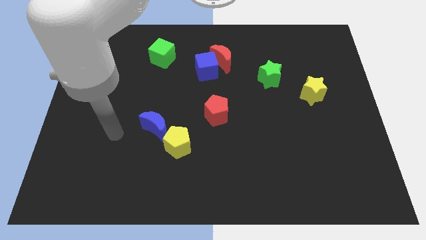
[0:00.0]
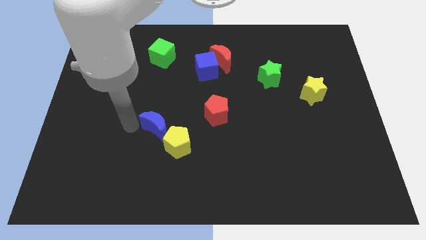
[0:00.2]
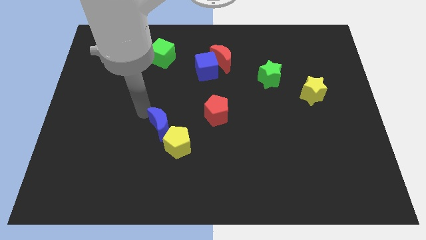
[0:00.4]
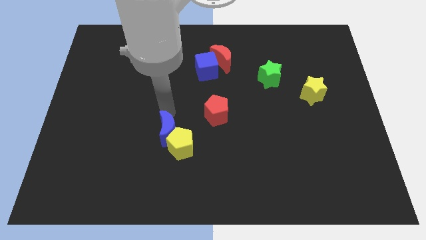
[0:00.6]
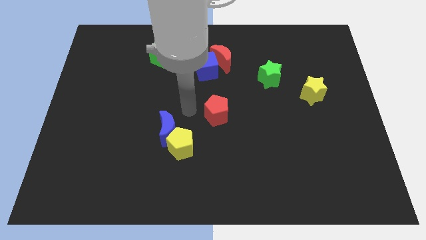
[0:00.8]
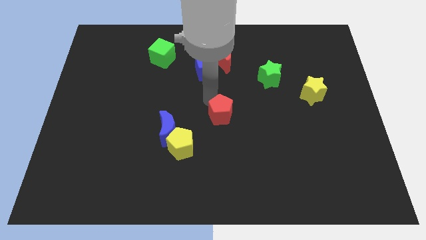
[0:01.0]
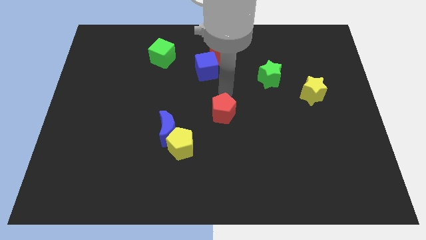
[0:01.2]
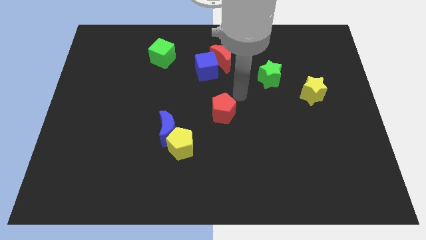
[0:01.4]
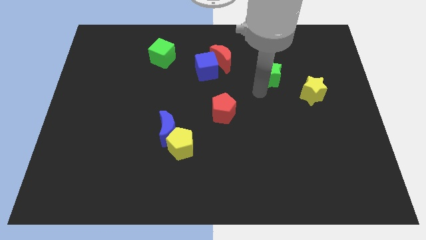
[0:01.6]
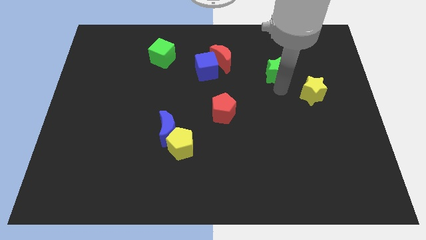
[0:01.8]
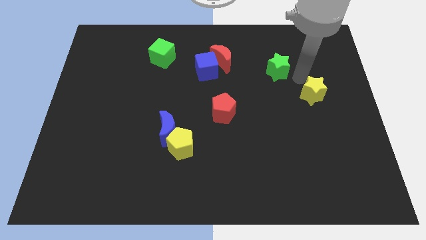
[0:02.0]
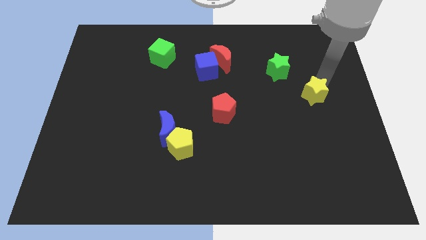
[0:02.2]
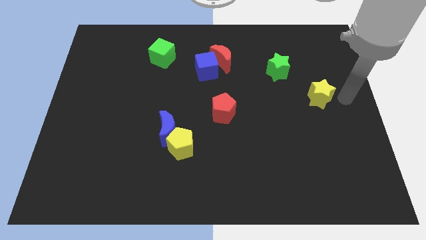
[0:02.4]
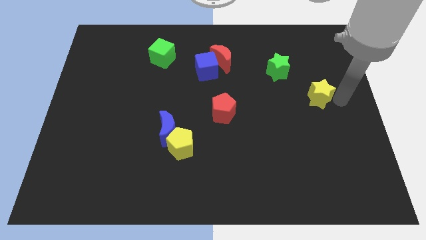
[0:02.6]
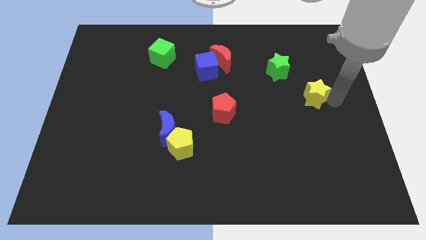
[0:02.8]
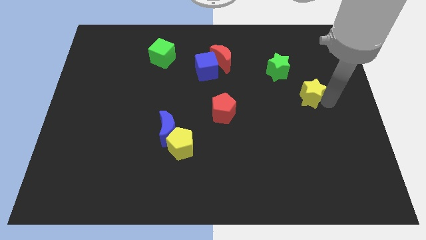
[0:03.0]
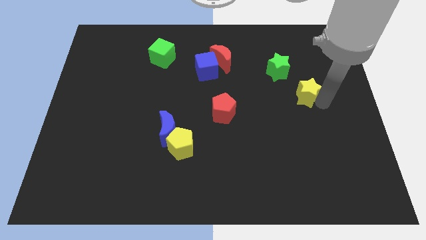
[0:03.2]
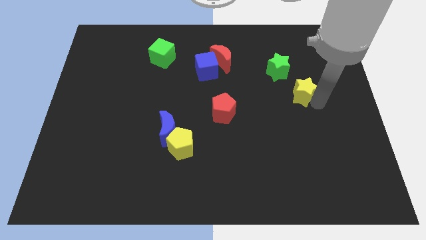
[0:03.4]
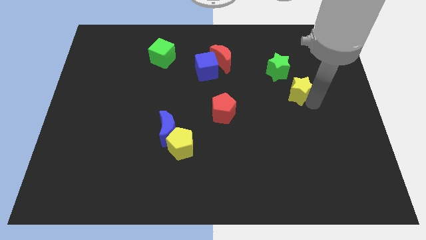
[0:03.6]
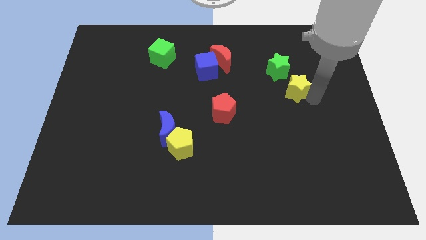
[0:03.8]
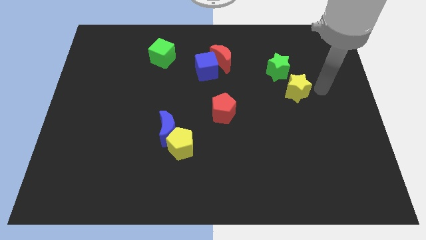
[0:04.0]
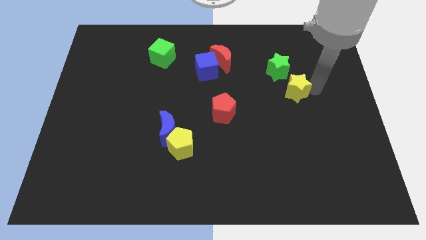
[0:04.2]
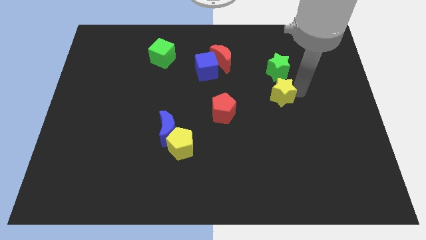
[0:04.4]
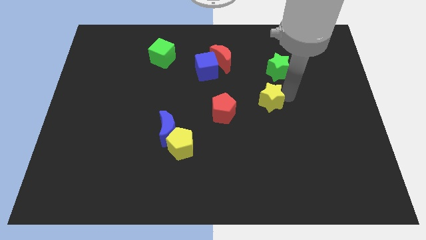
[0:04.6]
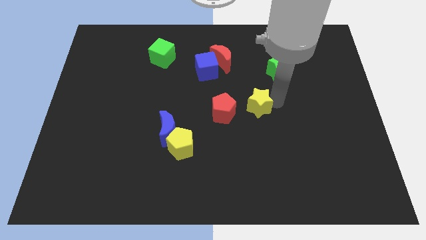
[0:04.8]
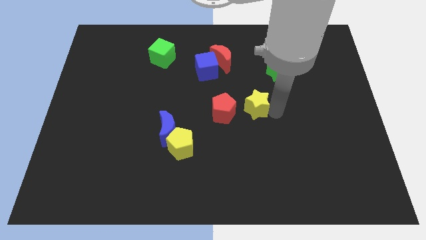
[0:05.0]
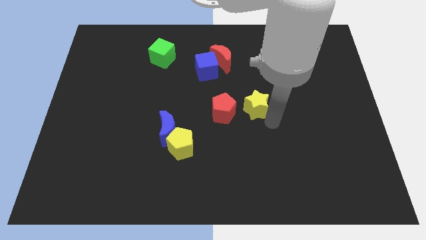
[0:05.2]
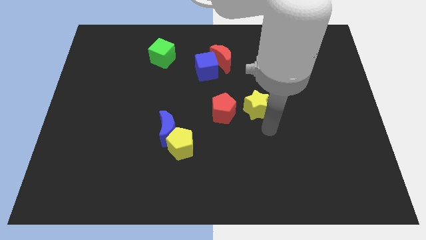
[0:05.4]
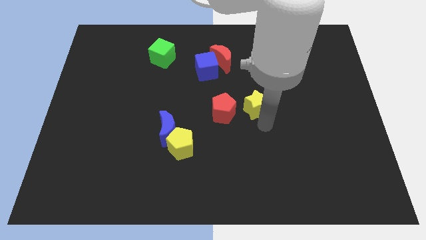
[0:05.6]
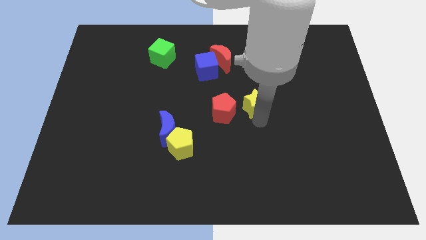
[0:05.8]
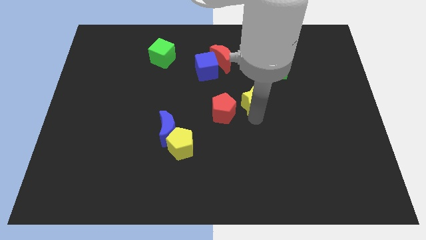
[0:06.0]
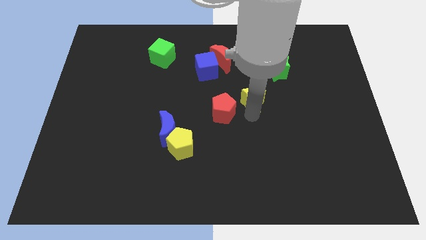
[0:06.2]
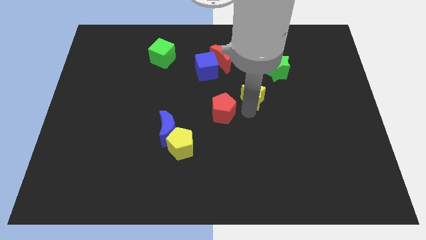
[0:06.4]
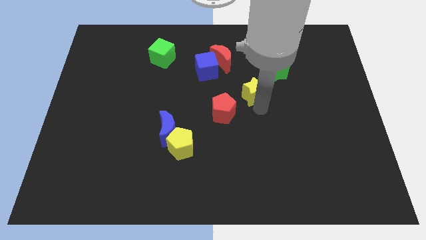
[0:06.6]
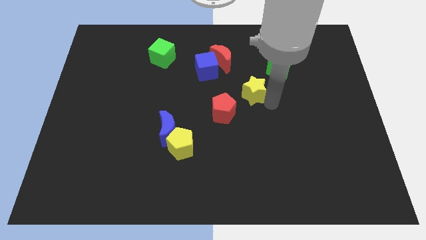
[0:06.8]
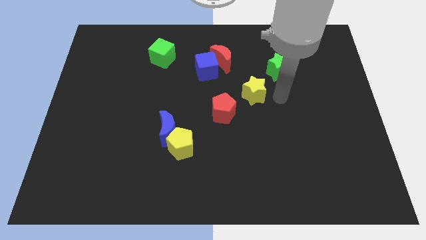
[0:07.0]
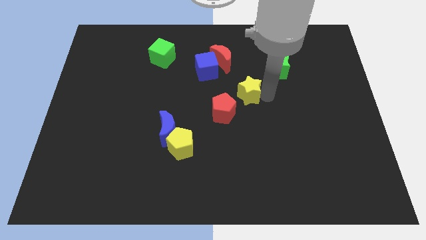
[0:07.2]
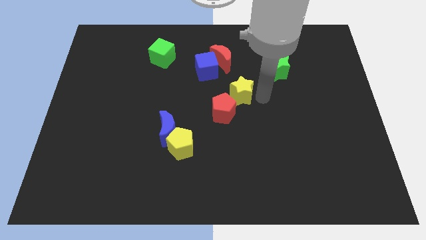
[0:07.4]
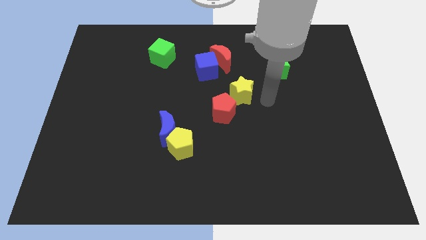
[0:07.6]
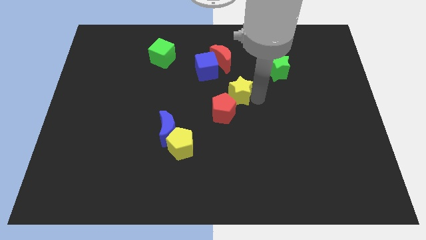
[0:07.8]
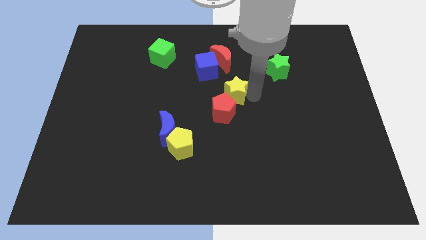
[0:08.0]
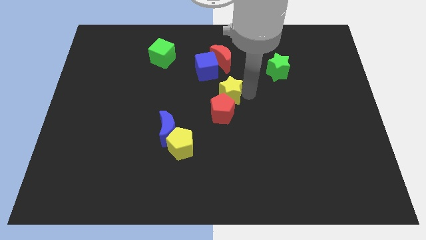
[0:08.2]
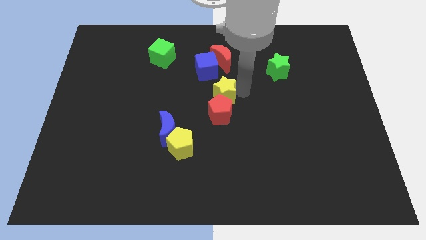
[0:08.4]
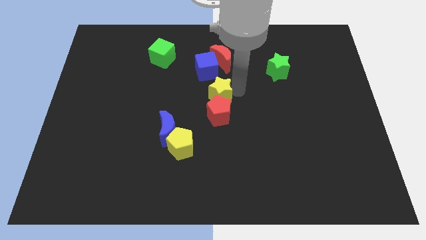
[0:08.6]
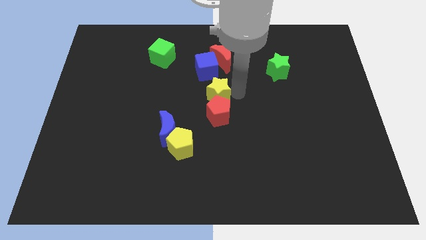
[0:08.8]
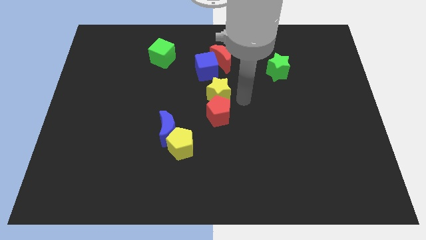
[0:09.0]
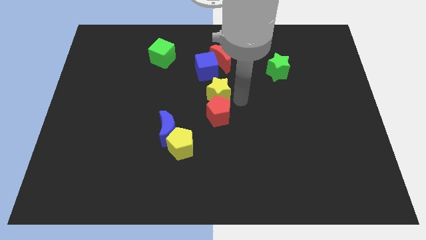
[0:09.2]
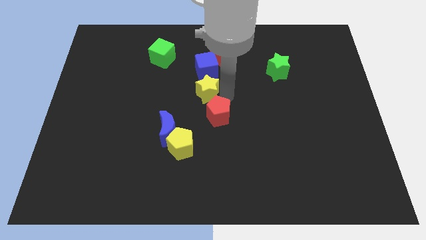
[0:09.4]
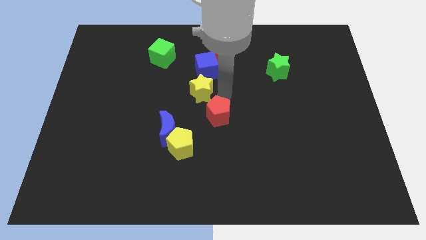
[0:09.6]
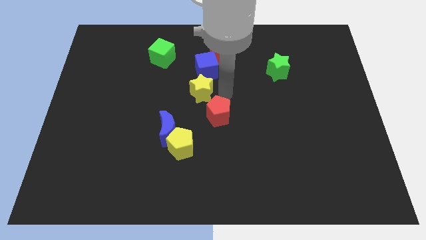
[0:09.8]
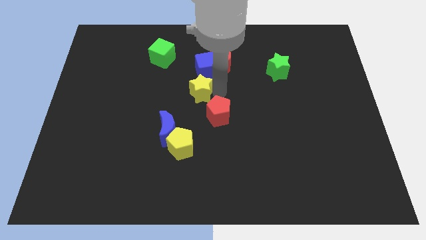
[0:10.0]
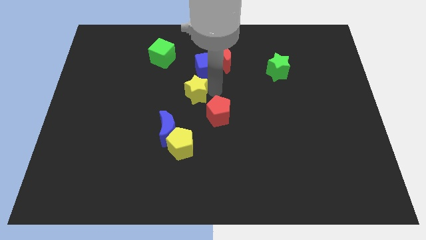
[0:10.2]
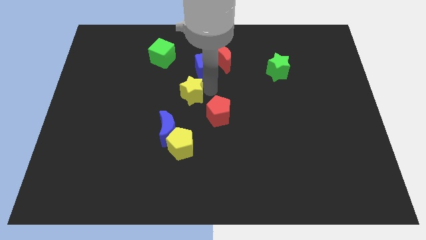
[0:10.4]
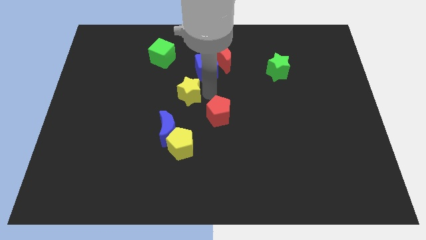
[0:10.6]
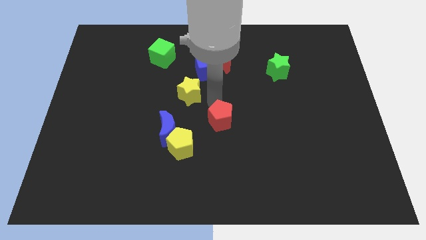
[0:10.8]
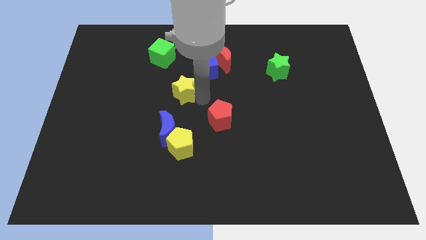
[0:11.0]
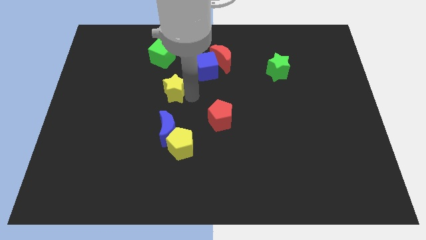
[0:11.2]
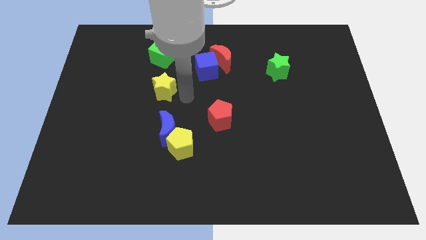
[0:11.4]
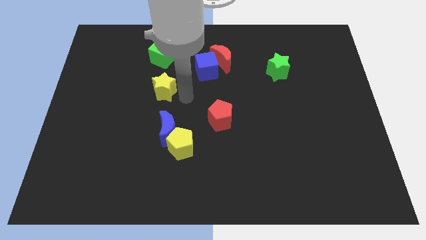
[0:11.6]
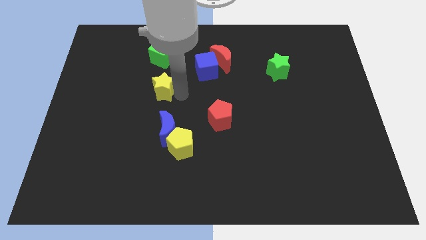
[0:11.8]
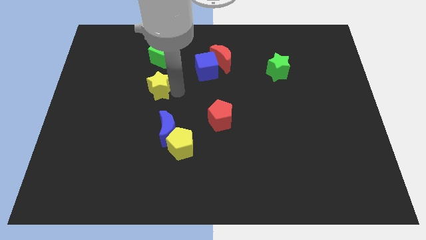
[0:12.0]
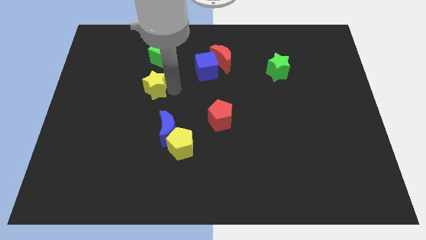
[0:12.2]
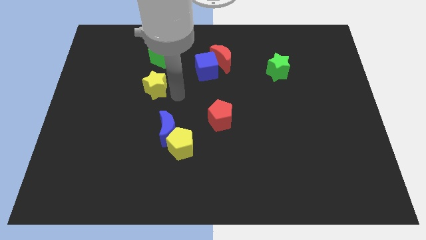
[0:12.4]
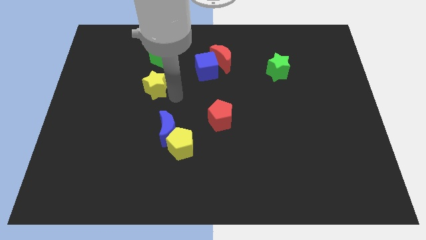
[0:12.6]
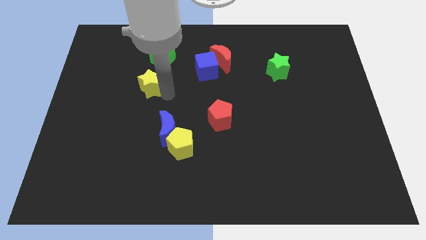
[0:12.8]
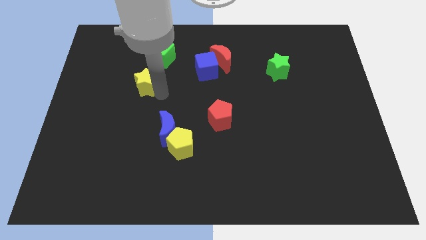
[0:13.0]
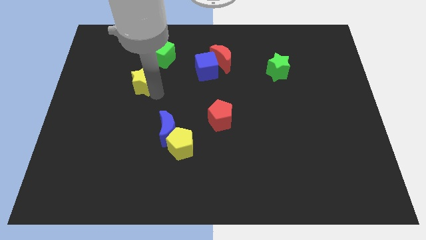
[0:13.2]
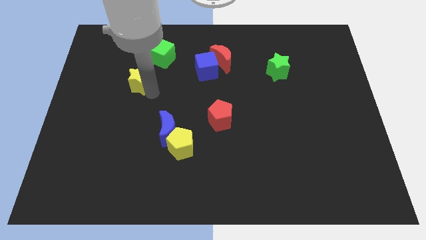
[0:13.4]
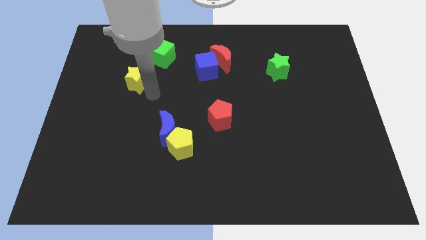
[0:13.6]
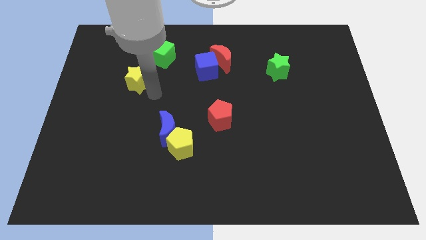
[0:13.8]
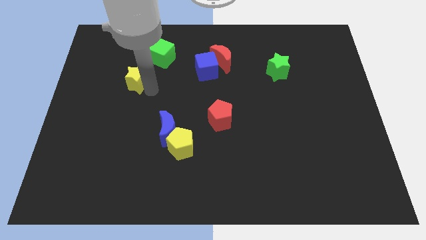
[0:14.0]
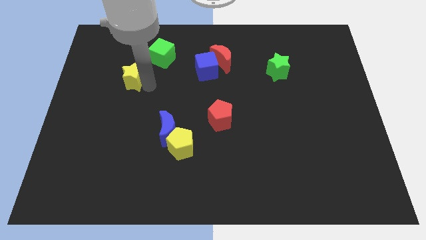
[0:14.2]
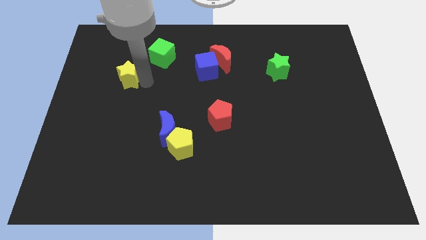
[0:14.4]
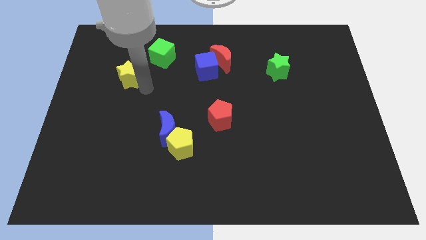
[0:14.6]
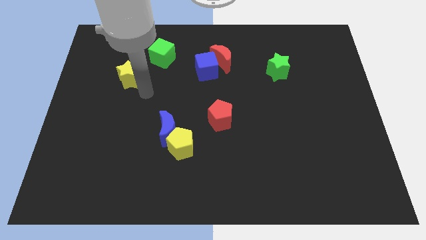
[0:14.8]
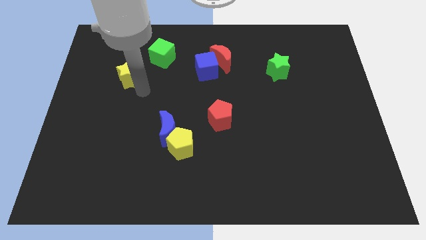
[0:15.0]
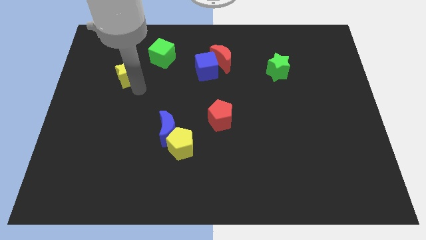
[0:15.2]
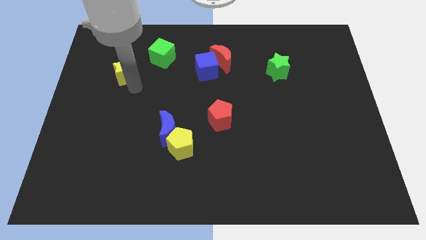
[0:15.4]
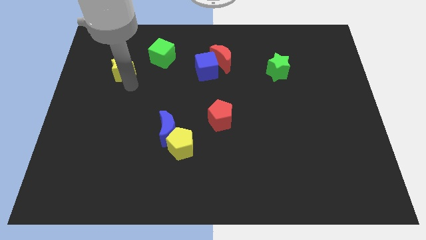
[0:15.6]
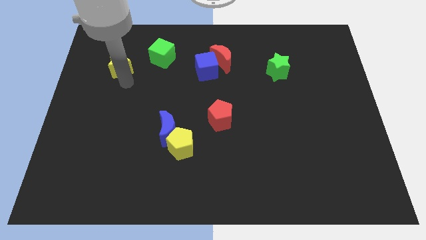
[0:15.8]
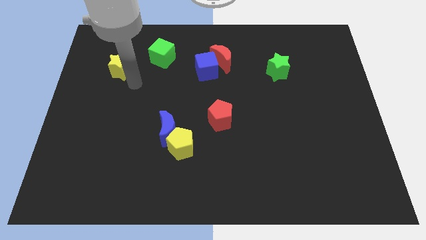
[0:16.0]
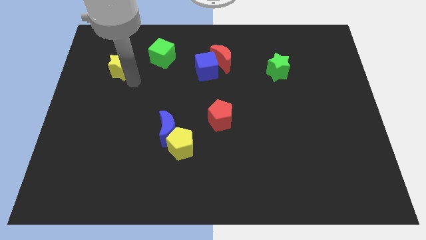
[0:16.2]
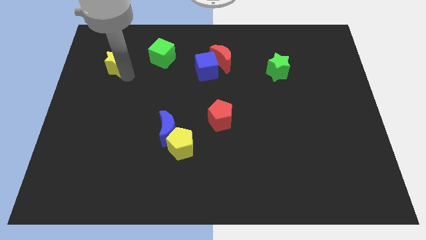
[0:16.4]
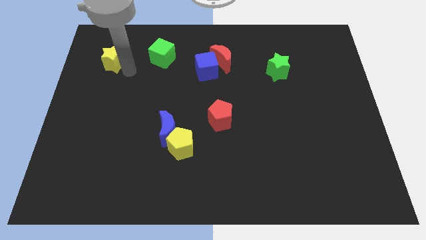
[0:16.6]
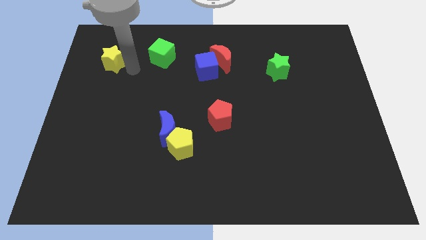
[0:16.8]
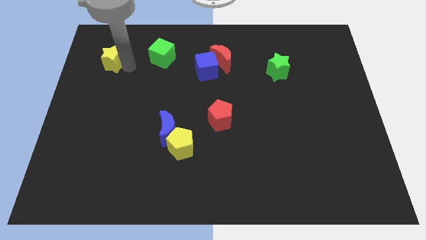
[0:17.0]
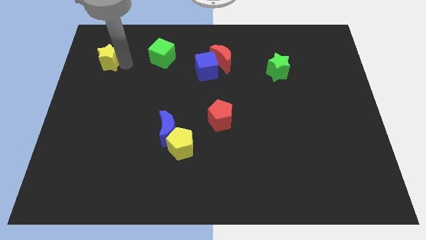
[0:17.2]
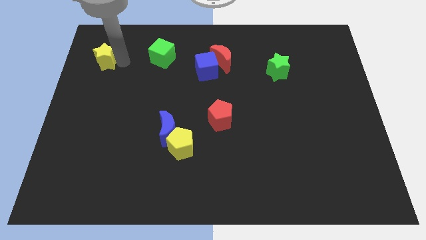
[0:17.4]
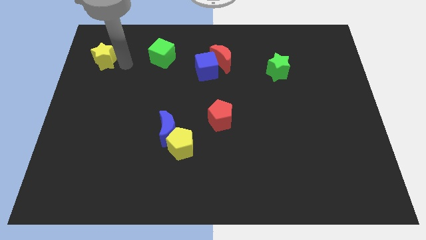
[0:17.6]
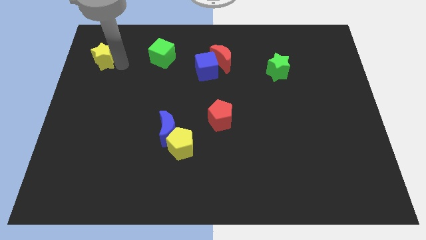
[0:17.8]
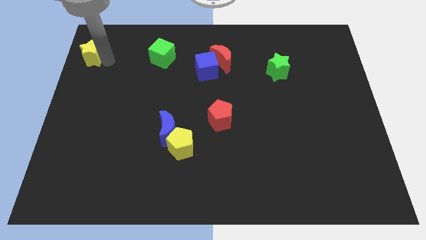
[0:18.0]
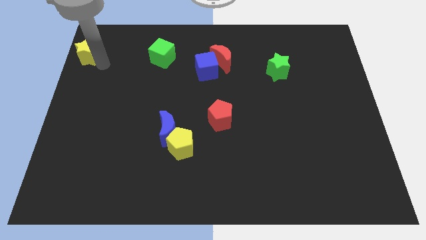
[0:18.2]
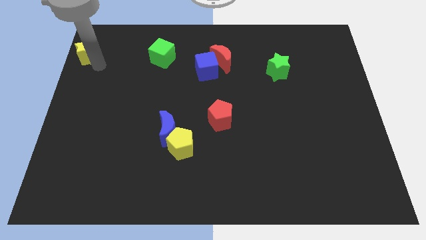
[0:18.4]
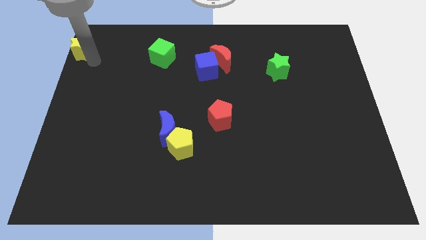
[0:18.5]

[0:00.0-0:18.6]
push the yellow star to the upper left corner
